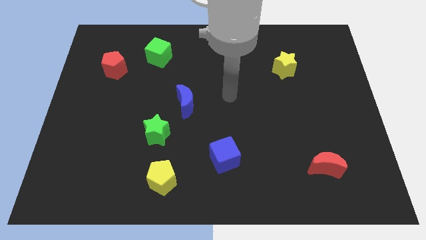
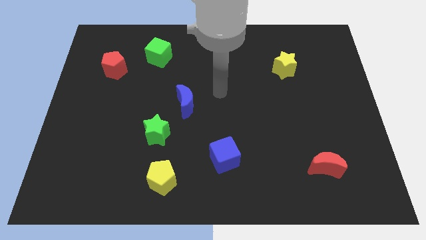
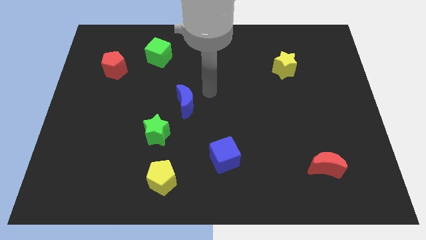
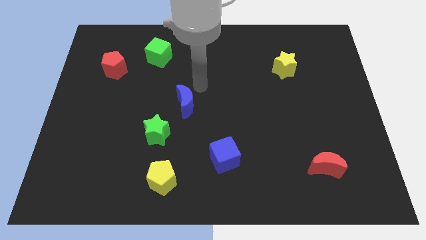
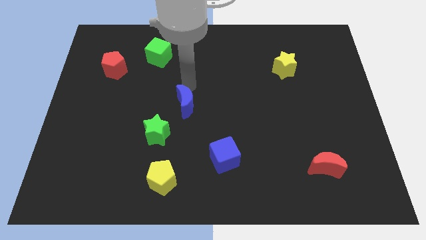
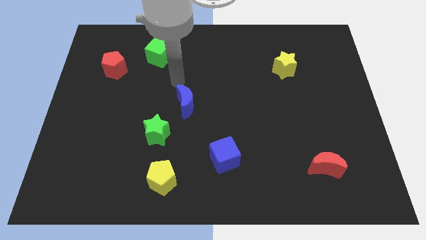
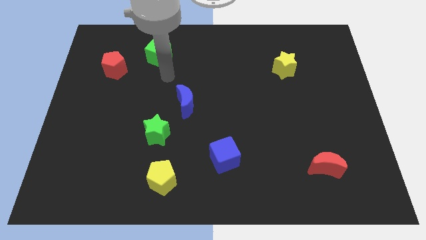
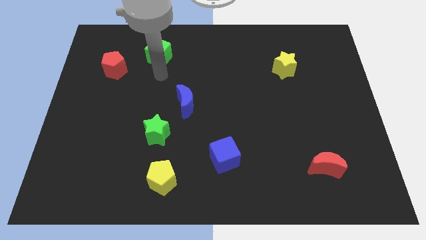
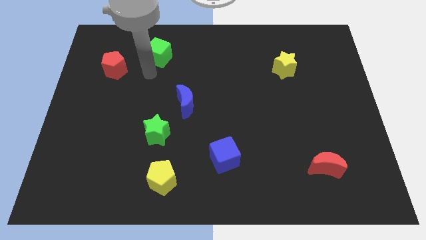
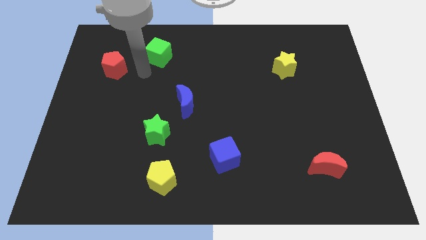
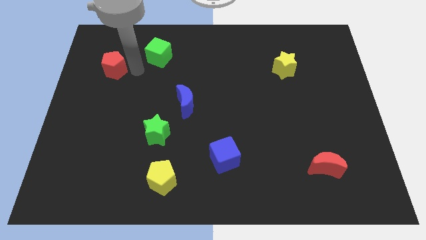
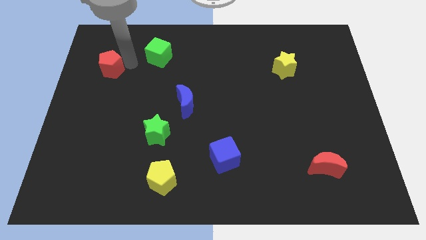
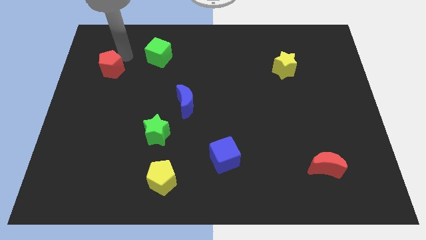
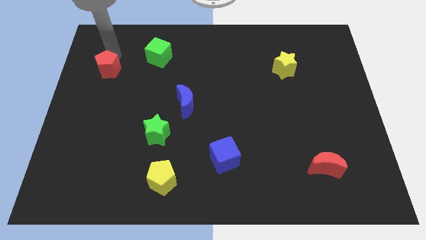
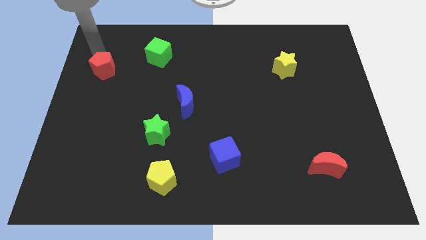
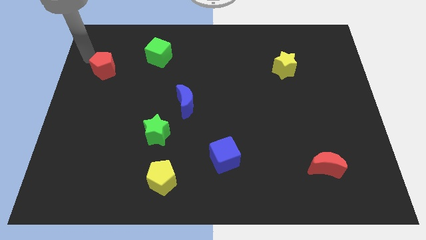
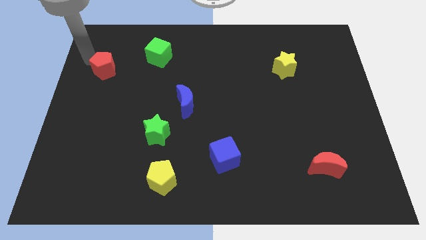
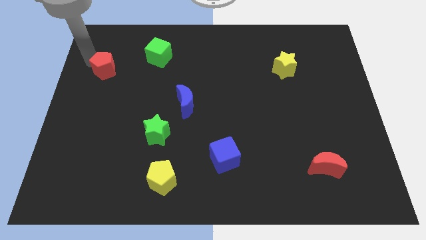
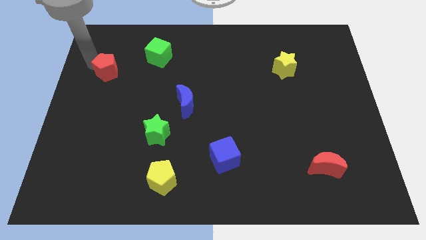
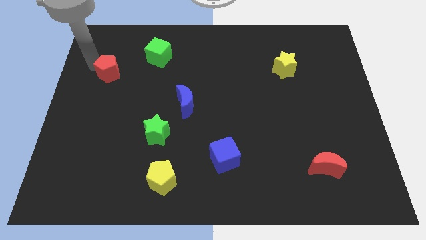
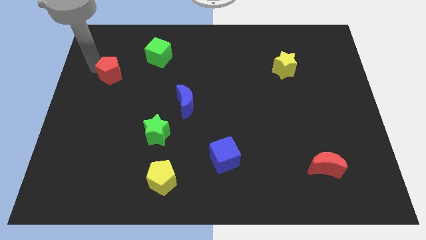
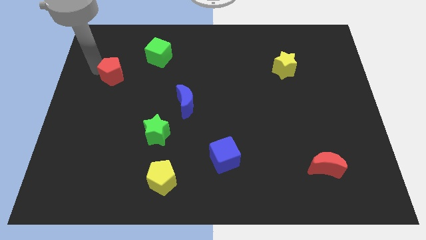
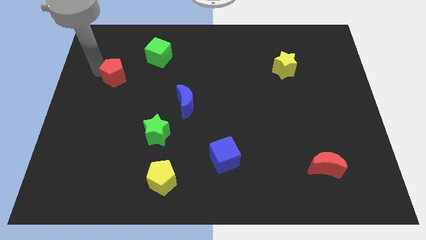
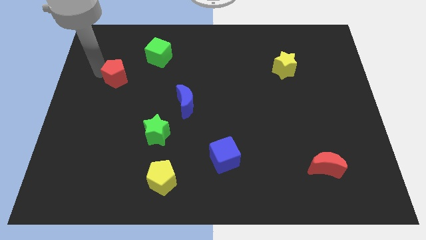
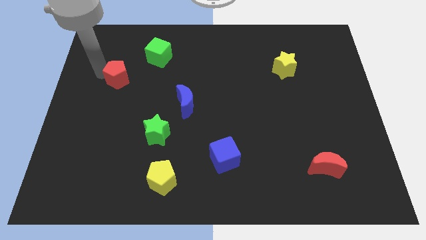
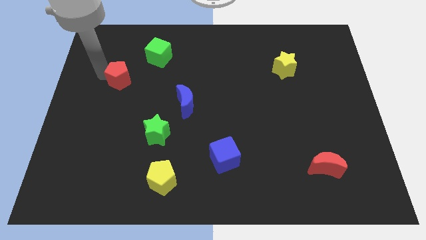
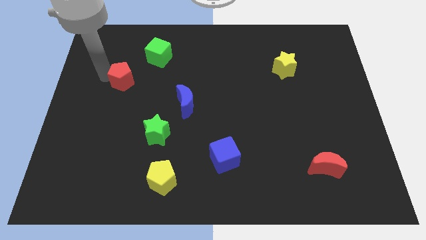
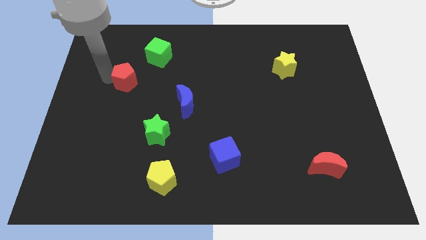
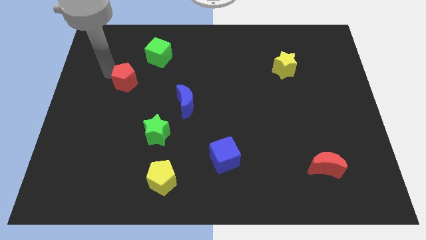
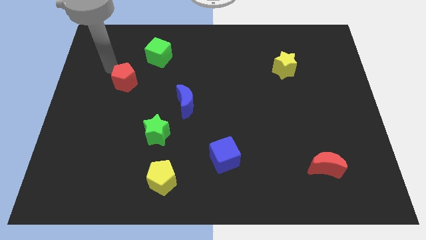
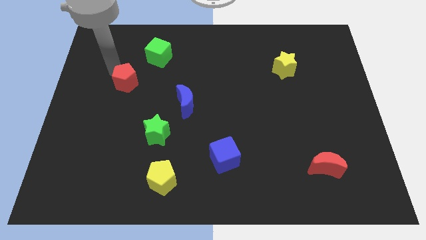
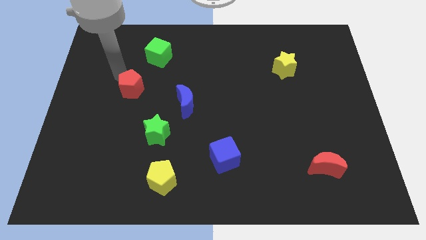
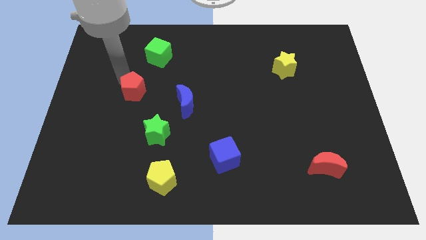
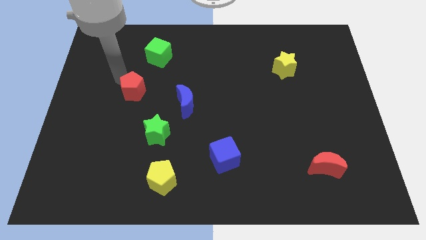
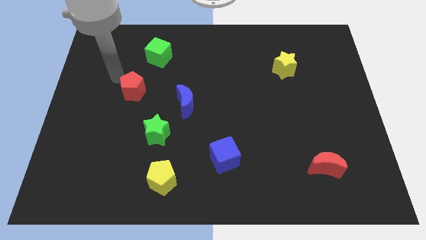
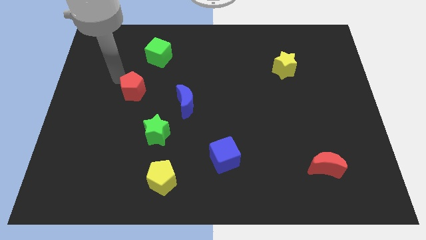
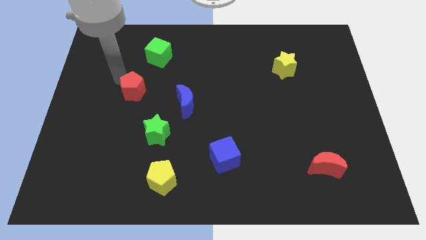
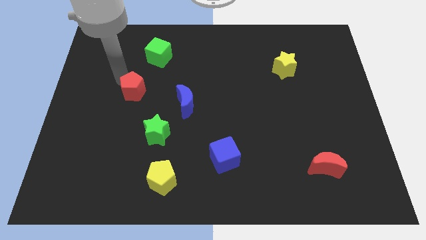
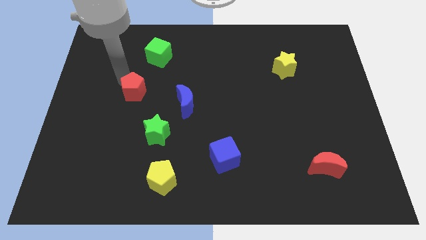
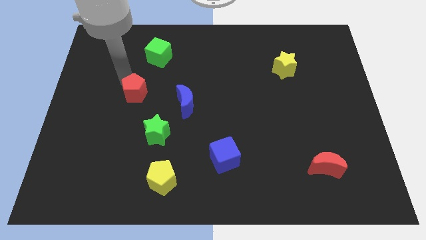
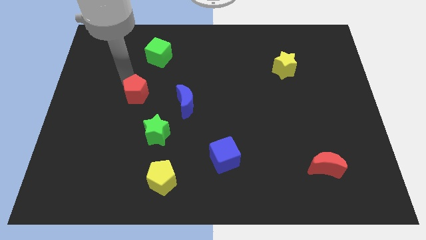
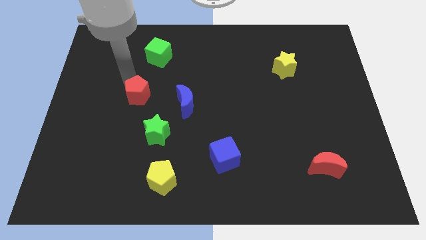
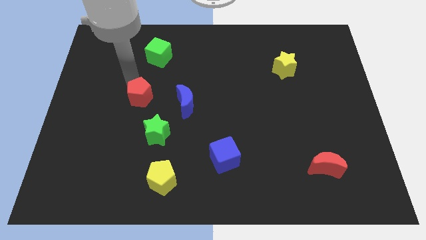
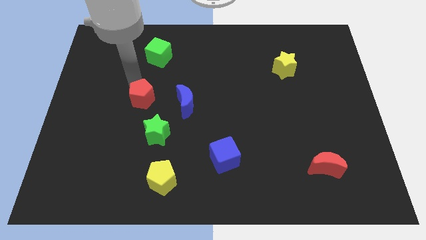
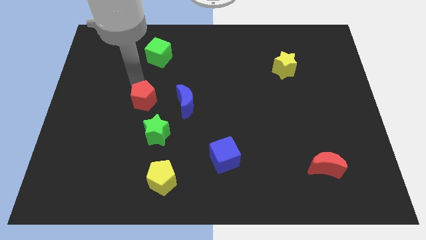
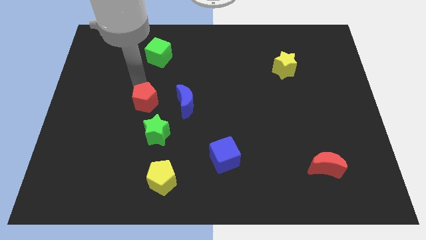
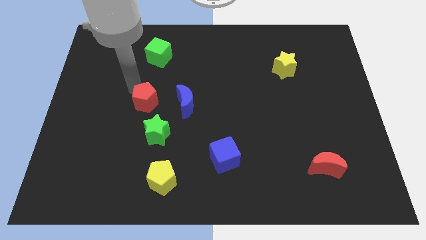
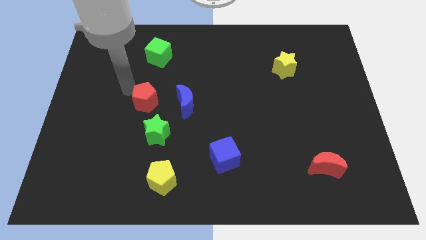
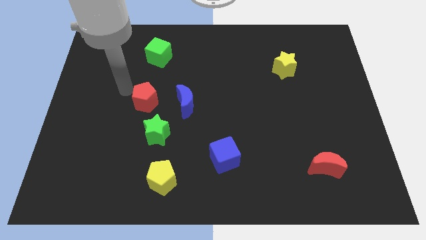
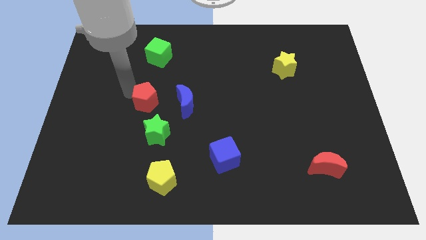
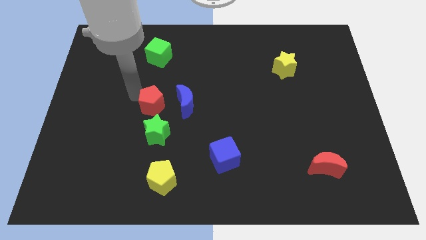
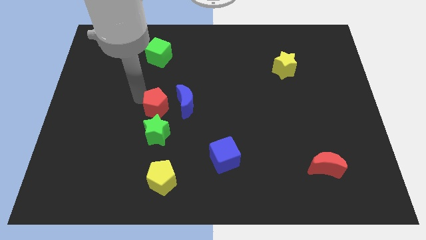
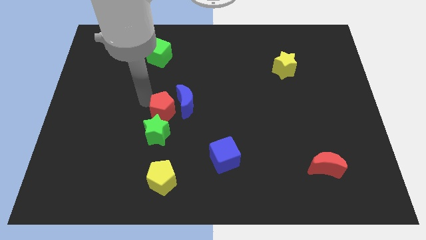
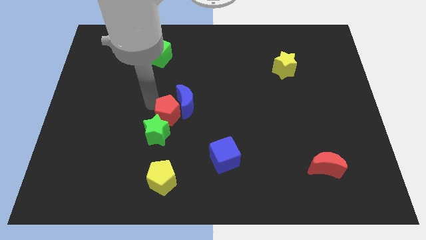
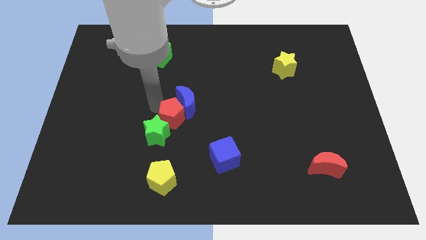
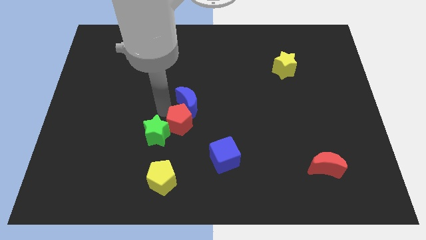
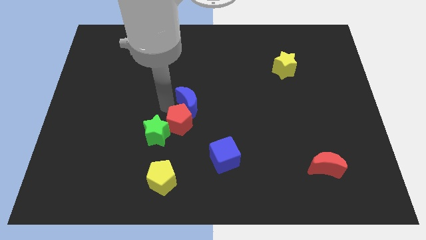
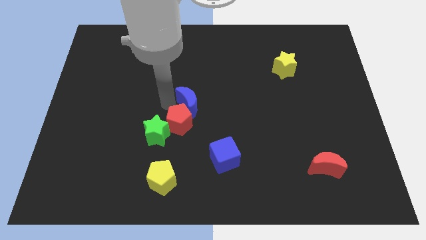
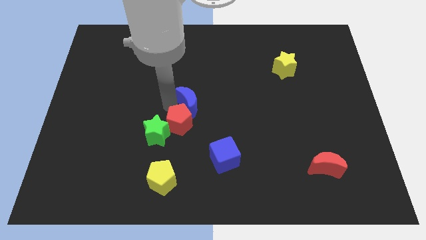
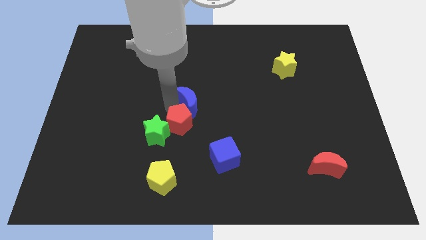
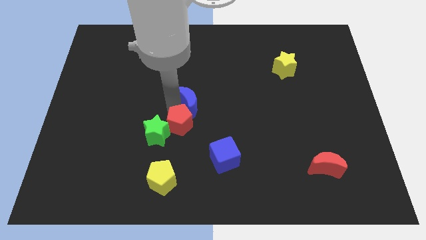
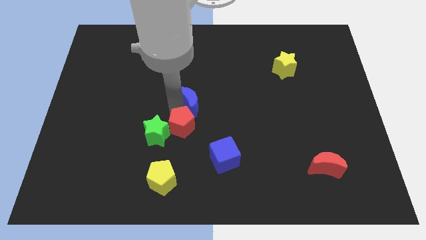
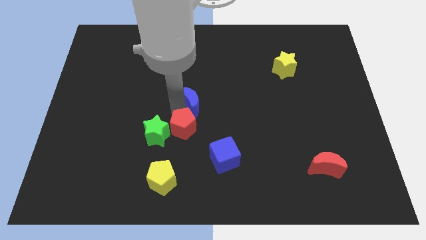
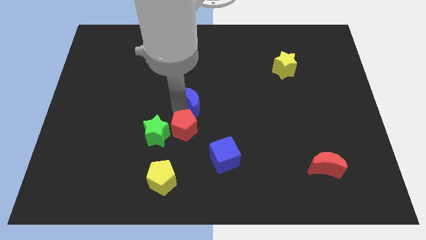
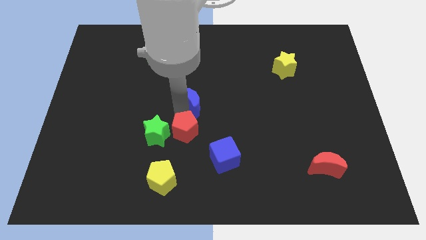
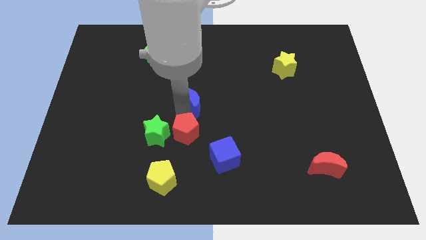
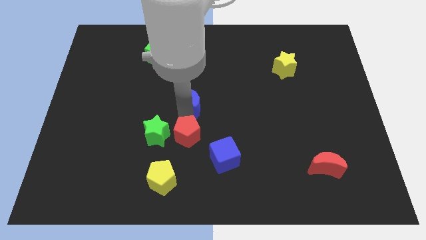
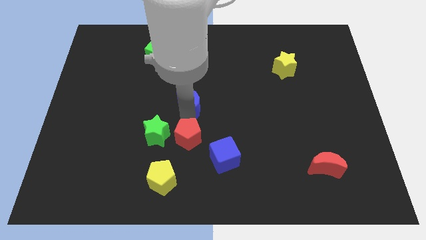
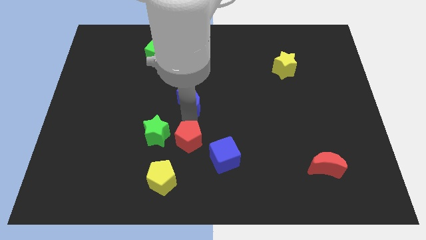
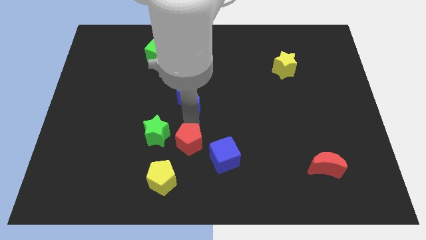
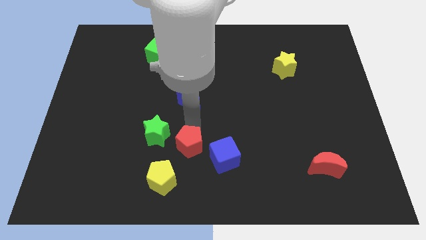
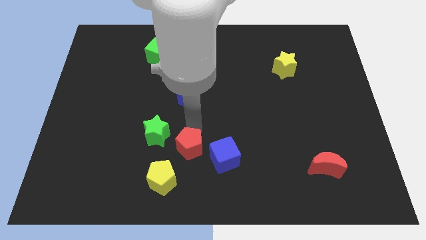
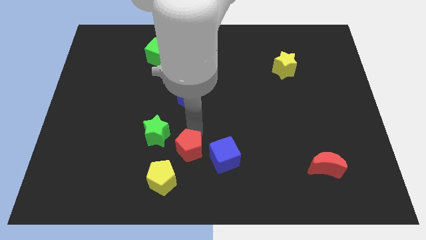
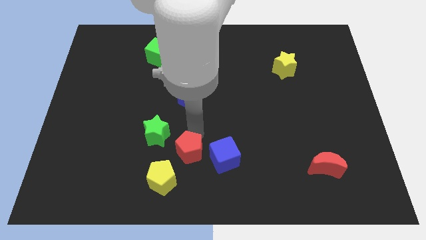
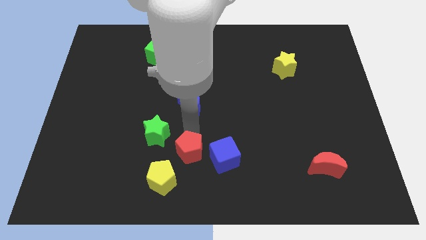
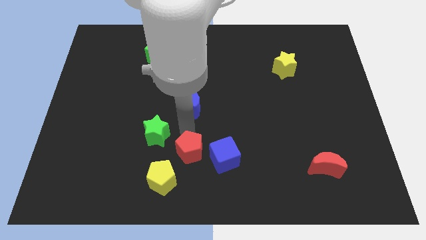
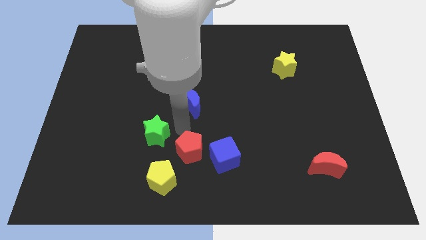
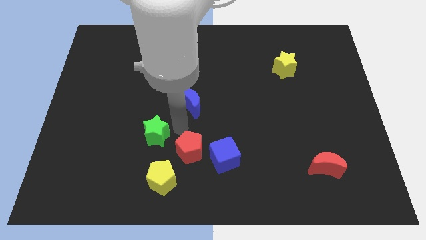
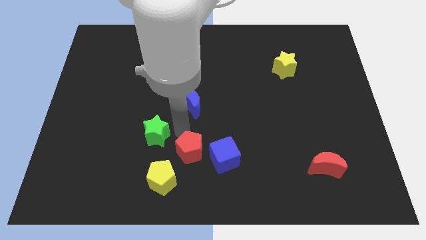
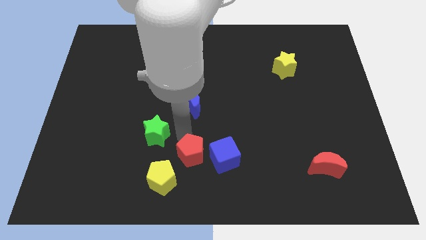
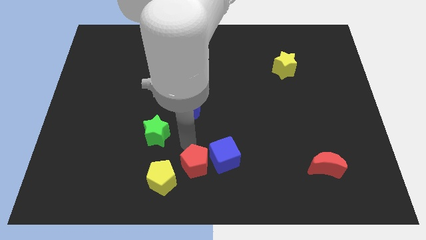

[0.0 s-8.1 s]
push the red pentagon to the bottom
